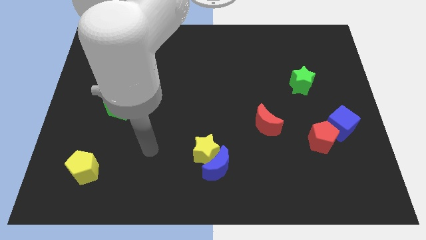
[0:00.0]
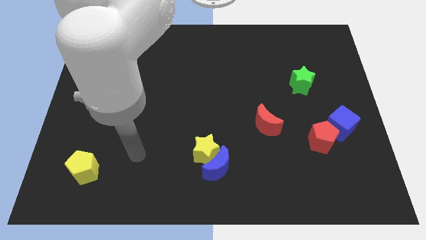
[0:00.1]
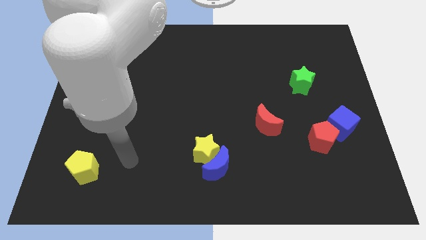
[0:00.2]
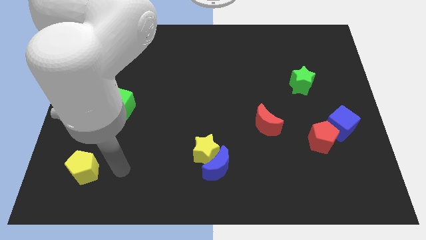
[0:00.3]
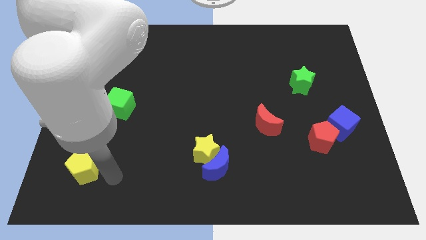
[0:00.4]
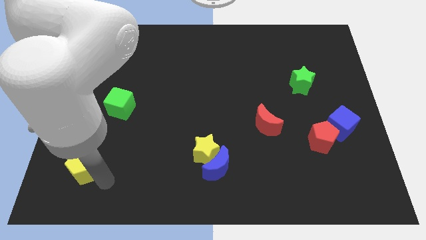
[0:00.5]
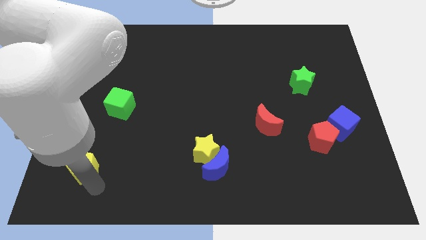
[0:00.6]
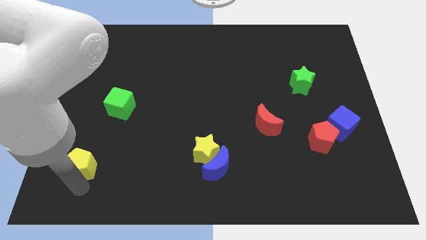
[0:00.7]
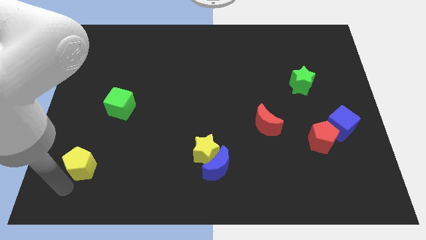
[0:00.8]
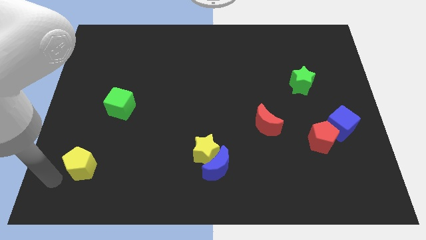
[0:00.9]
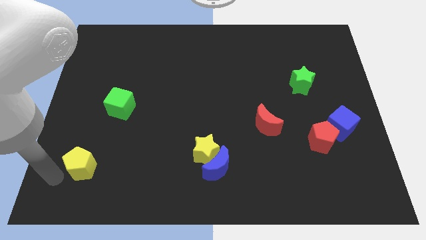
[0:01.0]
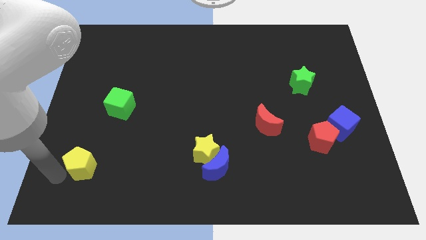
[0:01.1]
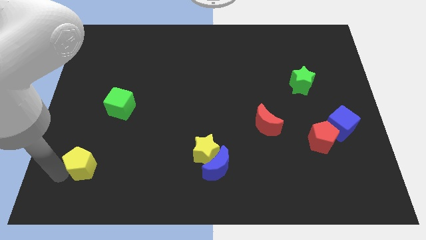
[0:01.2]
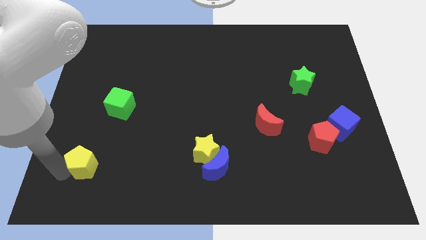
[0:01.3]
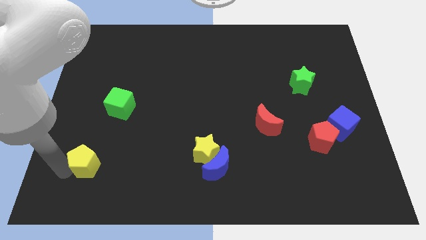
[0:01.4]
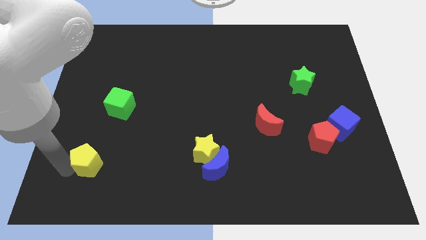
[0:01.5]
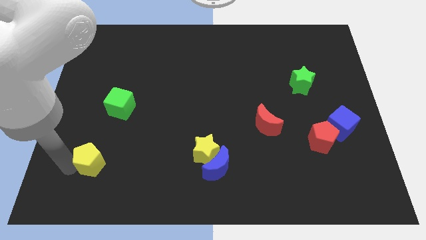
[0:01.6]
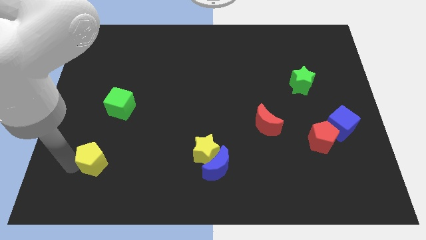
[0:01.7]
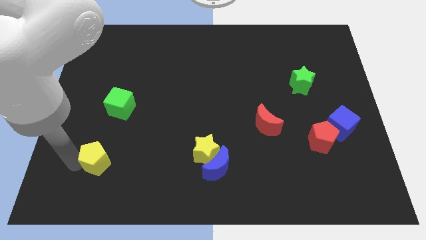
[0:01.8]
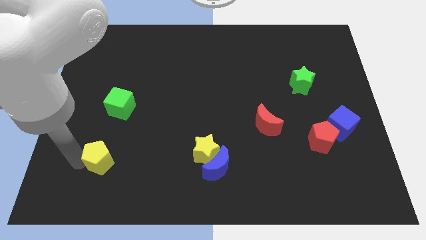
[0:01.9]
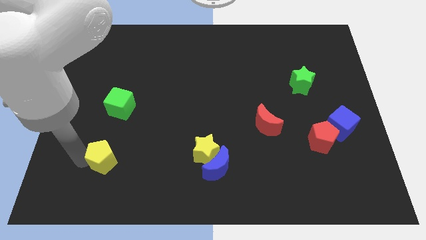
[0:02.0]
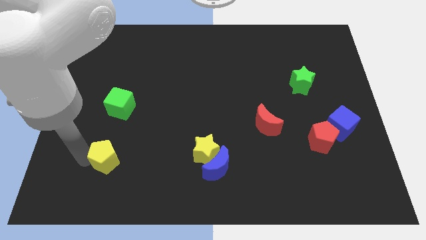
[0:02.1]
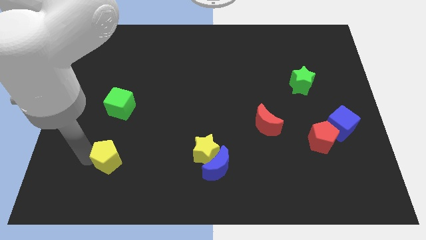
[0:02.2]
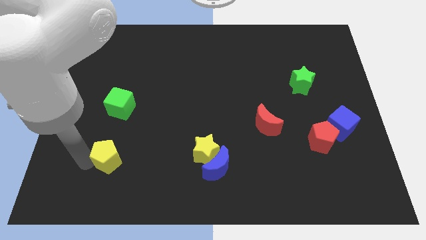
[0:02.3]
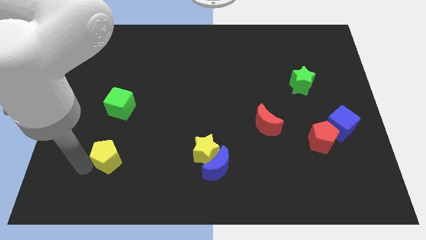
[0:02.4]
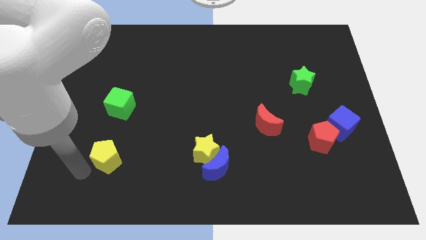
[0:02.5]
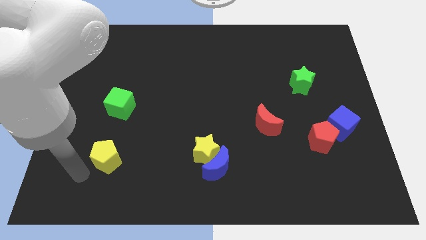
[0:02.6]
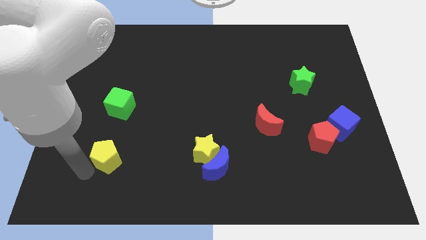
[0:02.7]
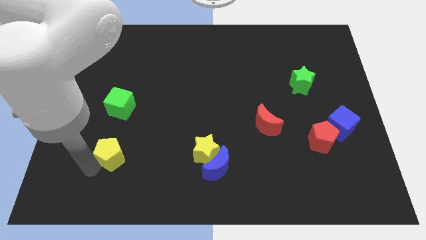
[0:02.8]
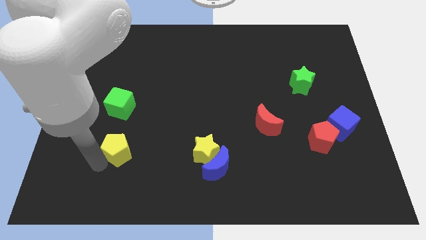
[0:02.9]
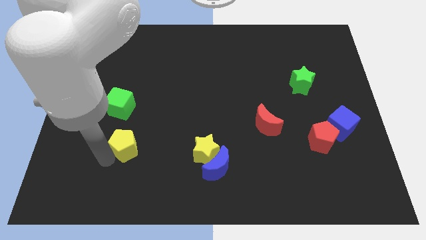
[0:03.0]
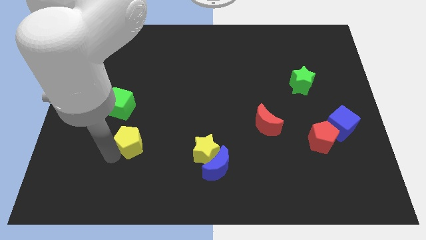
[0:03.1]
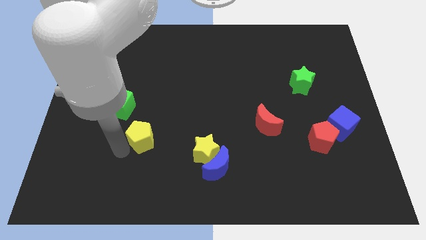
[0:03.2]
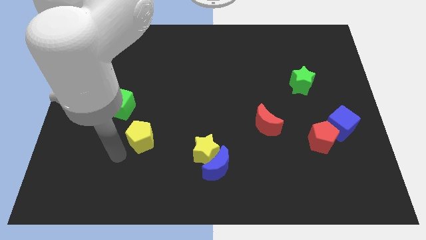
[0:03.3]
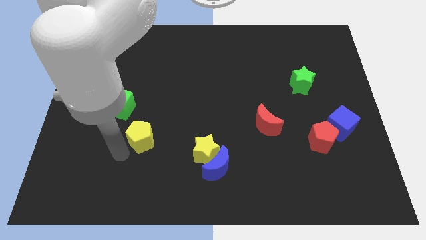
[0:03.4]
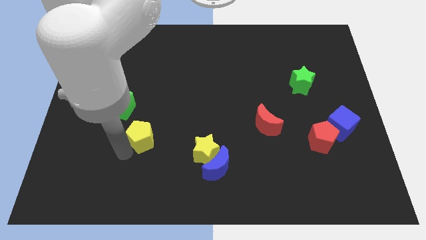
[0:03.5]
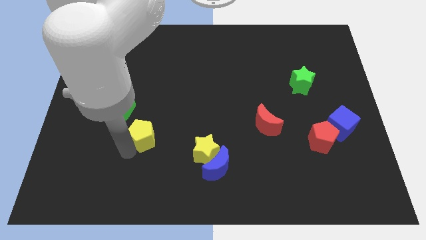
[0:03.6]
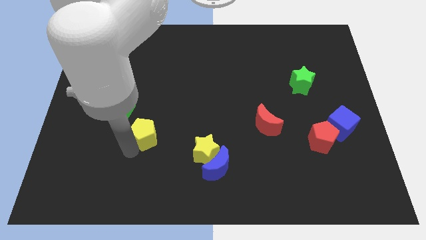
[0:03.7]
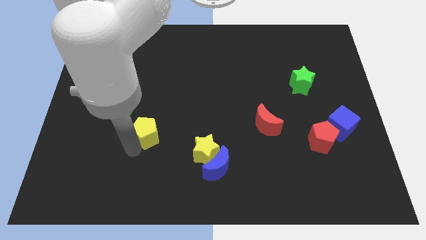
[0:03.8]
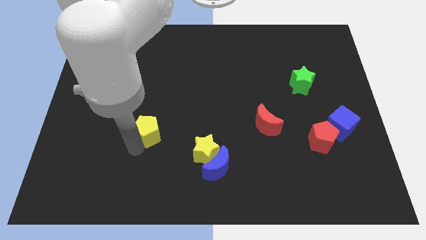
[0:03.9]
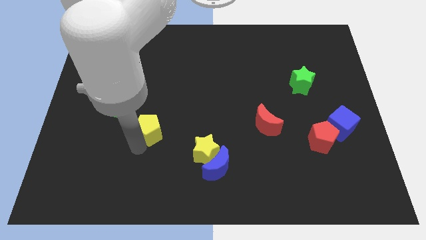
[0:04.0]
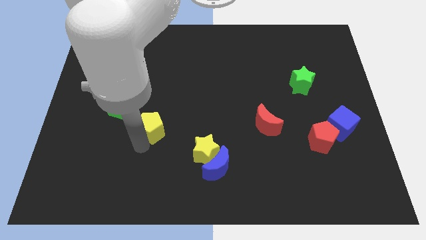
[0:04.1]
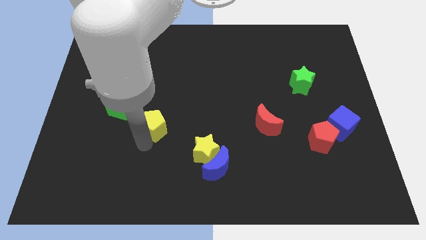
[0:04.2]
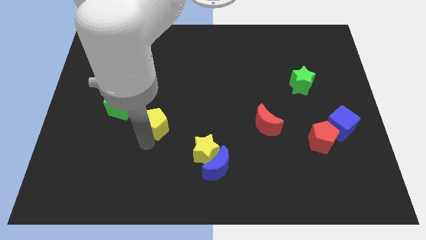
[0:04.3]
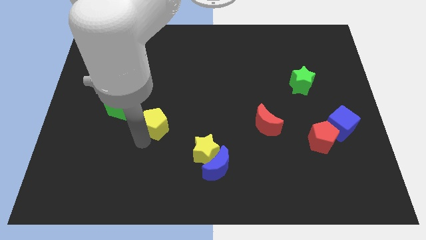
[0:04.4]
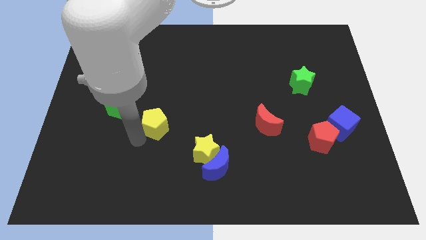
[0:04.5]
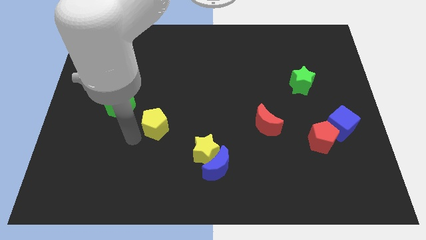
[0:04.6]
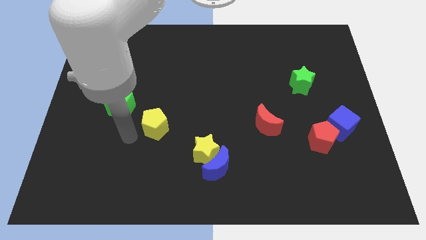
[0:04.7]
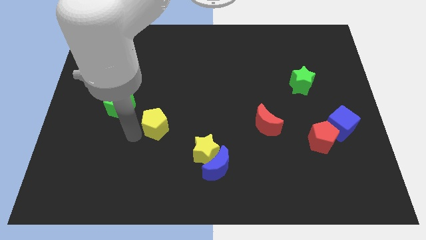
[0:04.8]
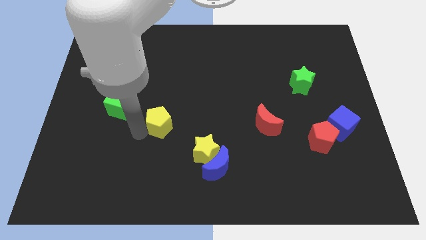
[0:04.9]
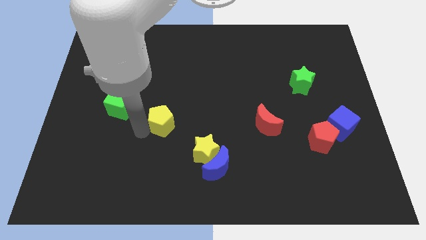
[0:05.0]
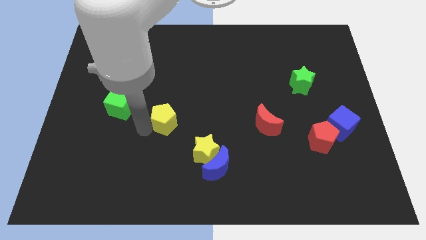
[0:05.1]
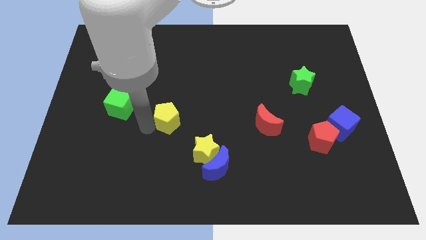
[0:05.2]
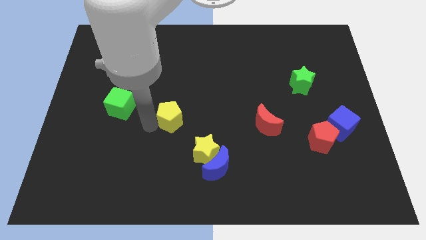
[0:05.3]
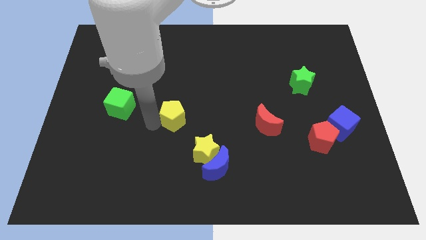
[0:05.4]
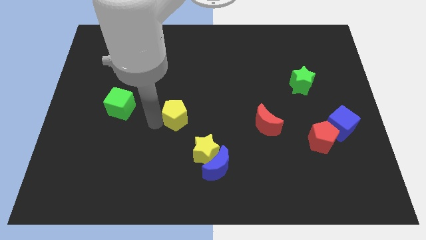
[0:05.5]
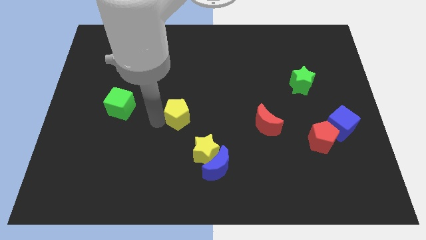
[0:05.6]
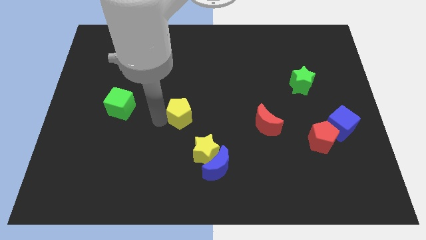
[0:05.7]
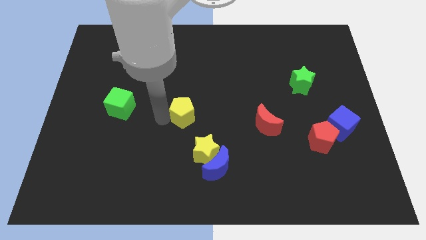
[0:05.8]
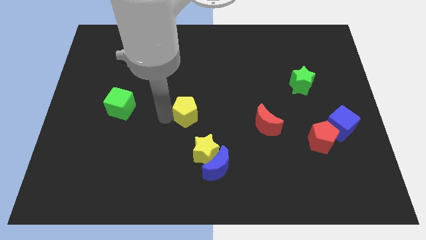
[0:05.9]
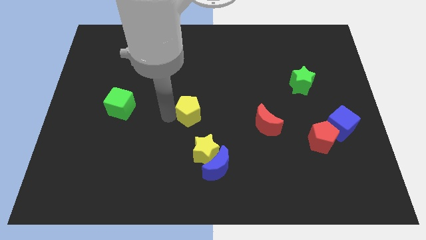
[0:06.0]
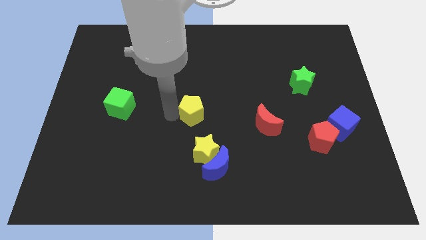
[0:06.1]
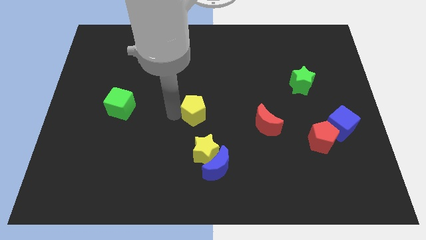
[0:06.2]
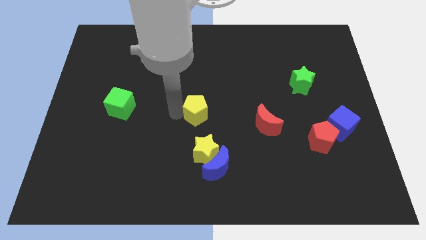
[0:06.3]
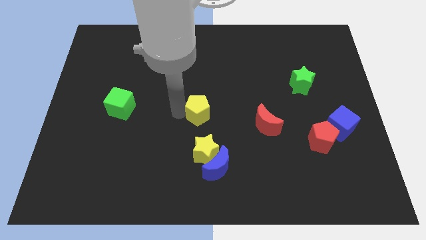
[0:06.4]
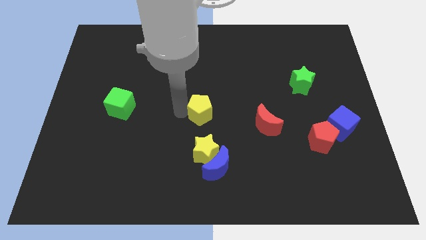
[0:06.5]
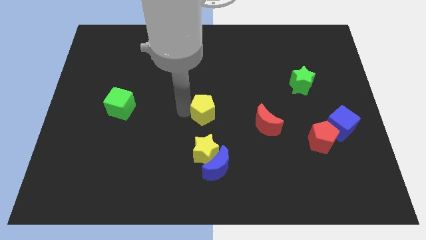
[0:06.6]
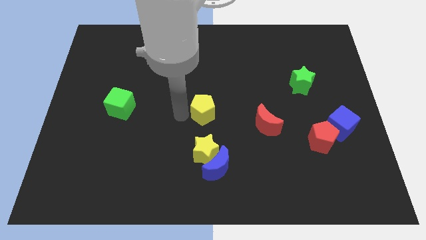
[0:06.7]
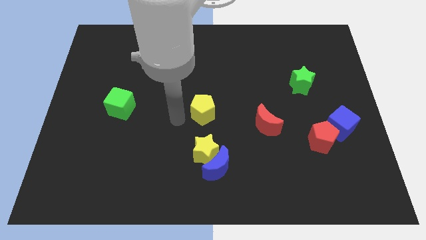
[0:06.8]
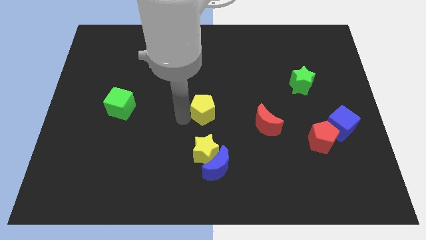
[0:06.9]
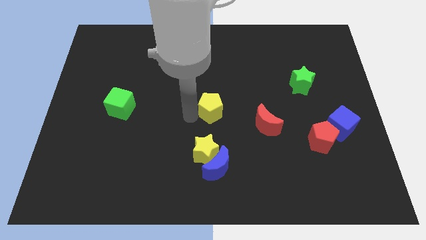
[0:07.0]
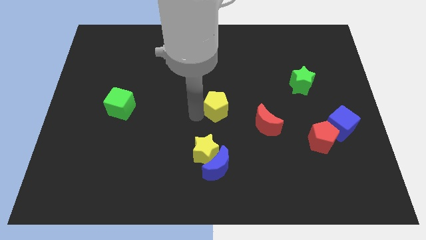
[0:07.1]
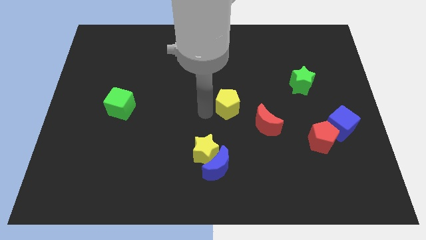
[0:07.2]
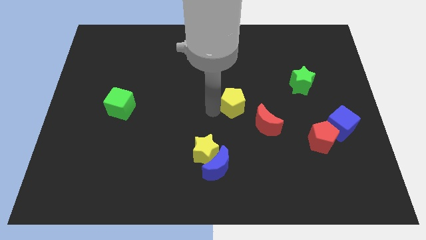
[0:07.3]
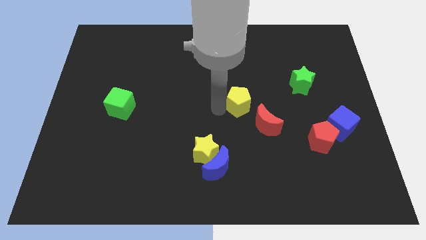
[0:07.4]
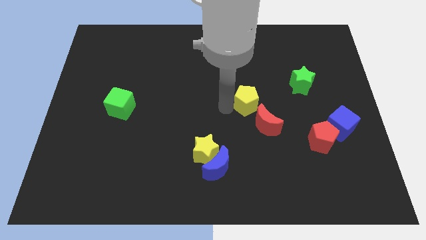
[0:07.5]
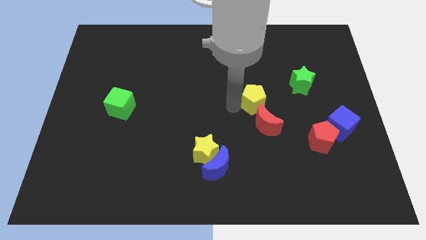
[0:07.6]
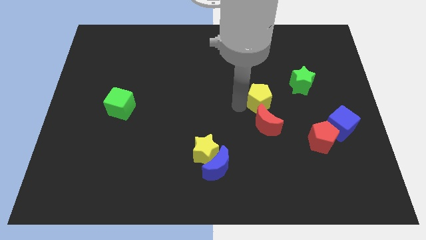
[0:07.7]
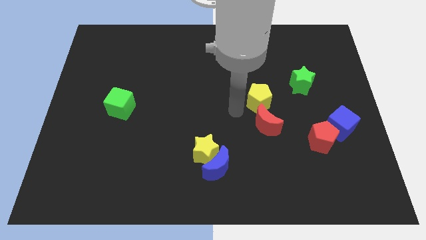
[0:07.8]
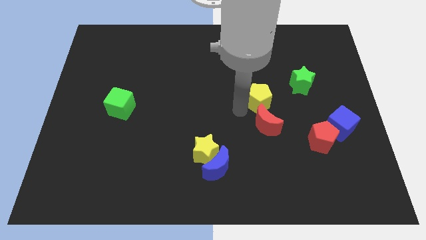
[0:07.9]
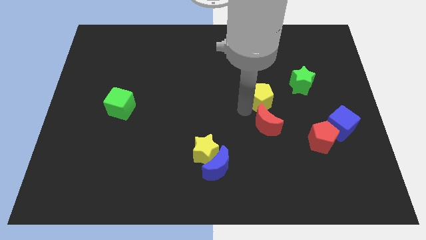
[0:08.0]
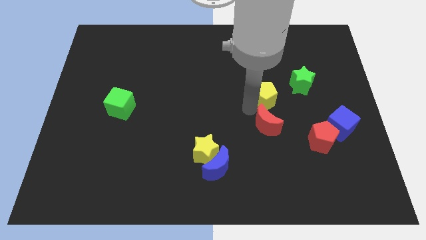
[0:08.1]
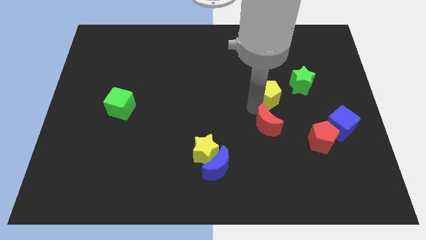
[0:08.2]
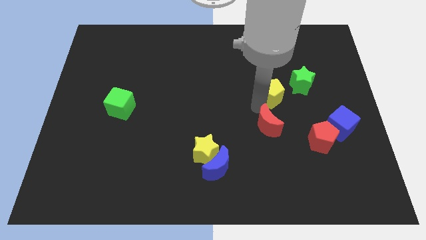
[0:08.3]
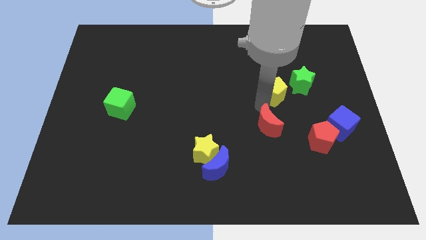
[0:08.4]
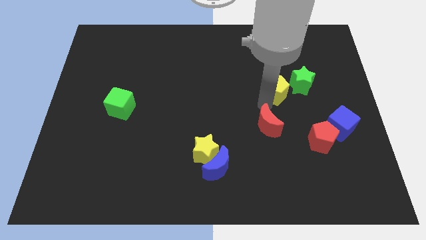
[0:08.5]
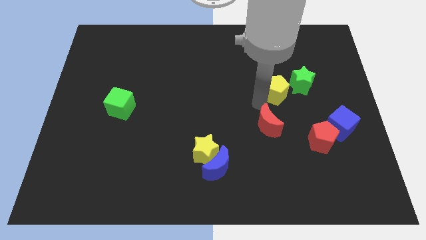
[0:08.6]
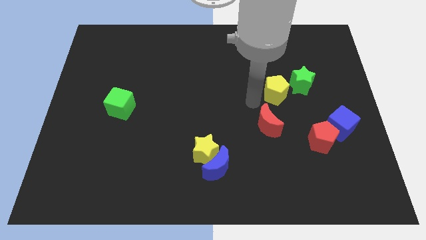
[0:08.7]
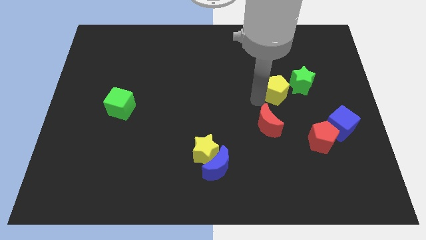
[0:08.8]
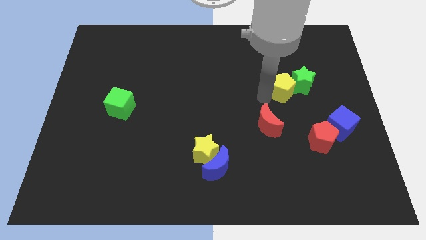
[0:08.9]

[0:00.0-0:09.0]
push the yellow pentagon close to the green star
